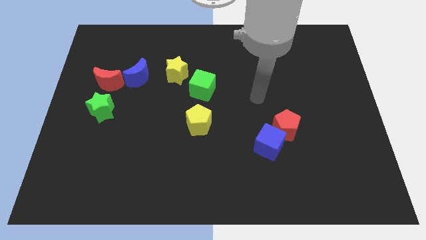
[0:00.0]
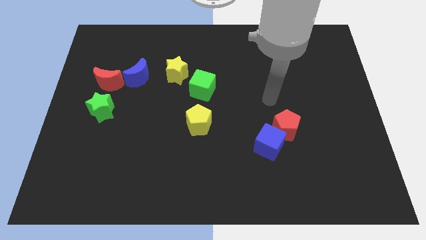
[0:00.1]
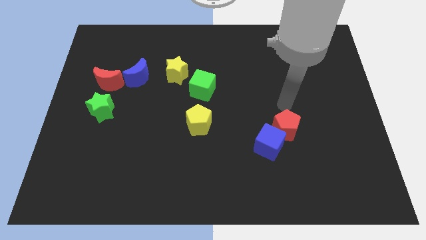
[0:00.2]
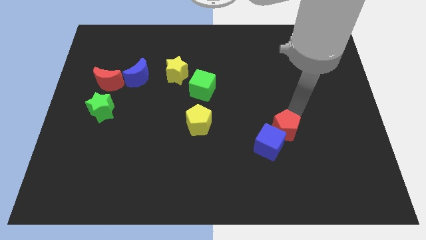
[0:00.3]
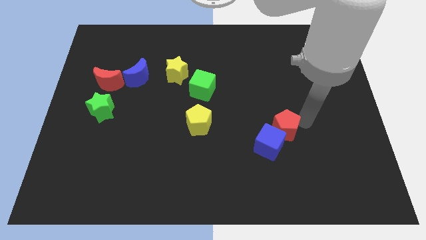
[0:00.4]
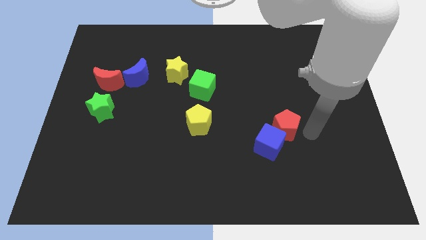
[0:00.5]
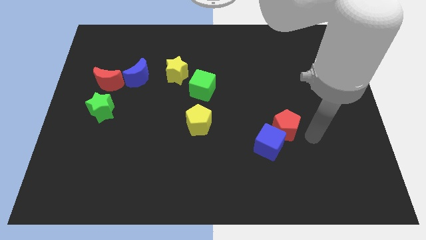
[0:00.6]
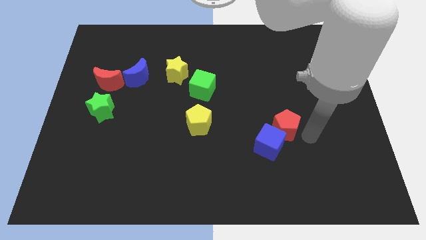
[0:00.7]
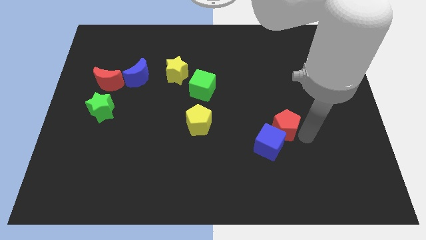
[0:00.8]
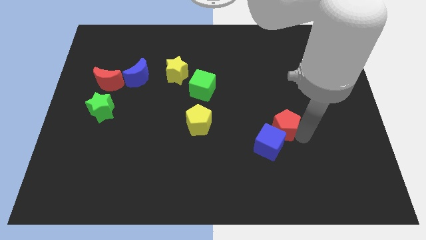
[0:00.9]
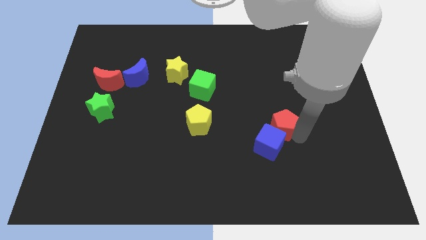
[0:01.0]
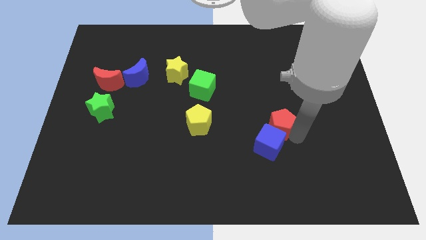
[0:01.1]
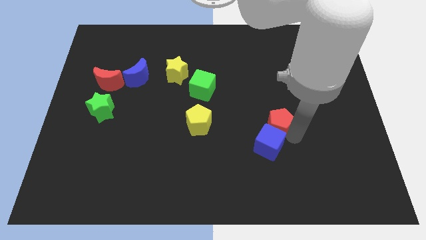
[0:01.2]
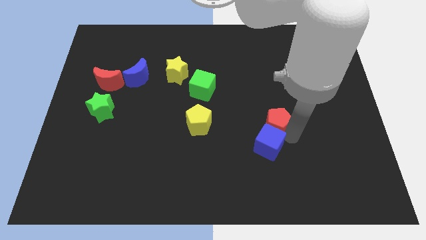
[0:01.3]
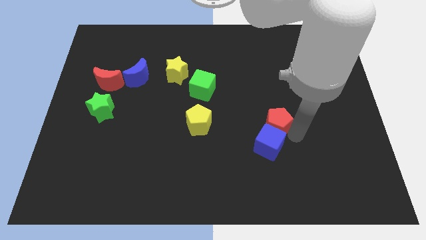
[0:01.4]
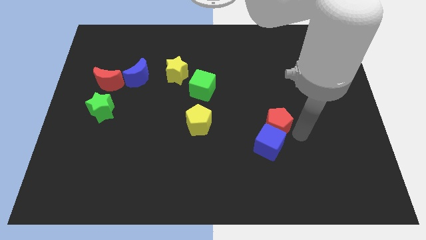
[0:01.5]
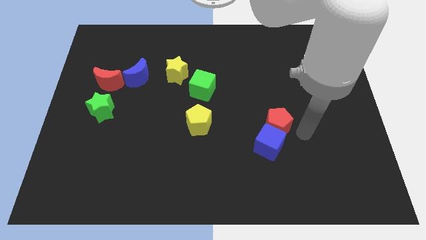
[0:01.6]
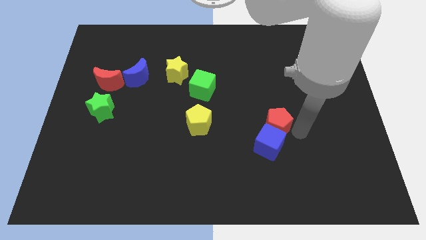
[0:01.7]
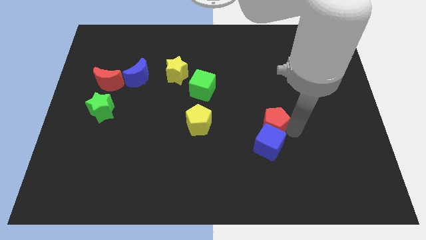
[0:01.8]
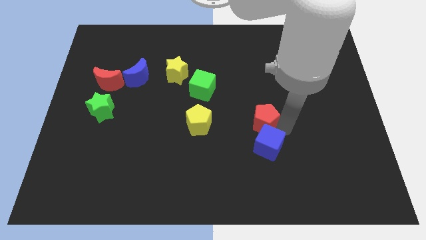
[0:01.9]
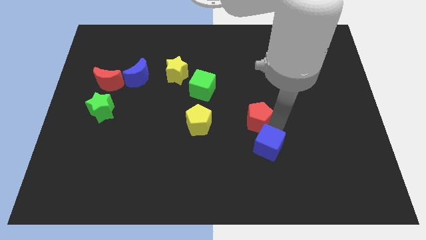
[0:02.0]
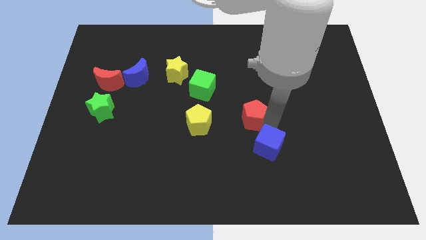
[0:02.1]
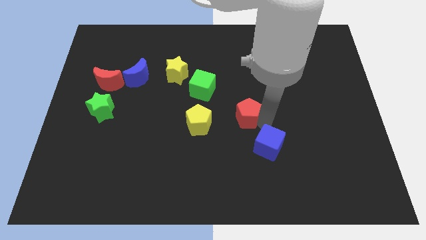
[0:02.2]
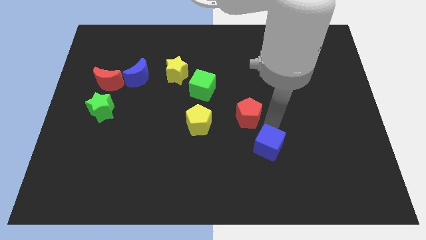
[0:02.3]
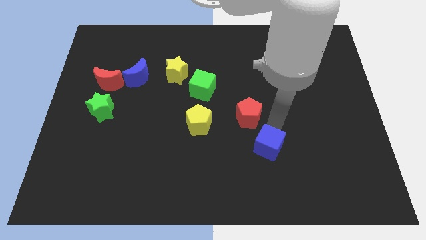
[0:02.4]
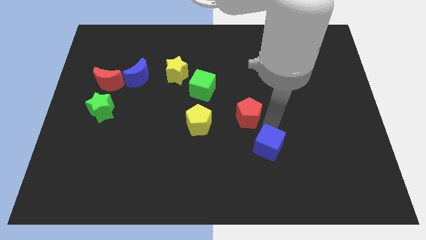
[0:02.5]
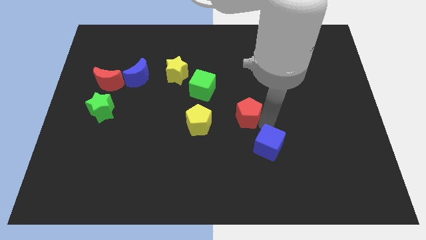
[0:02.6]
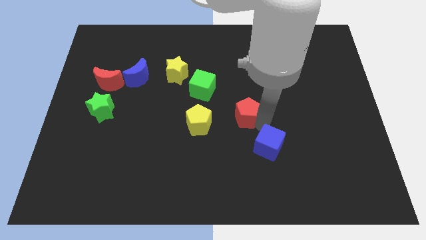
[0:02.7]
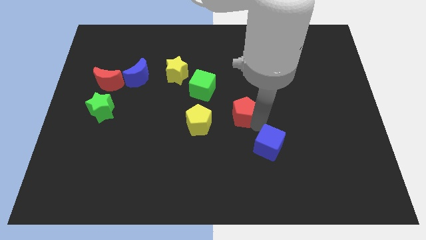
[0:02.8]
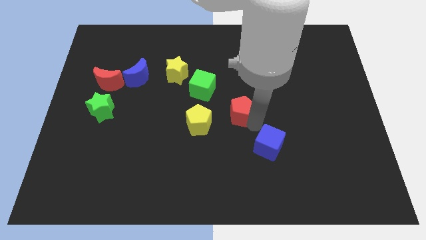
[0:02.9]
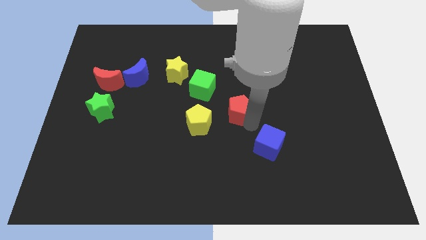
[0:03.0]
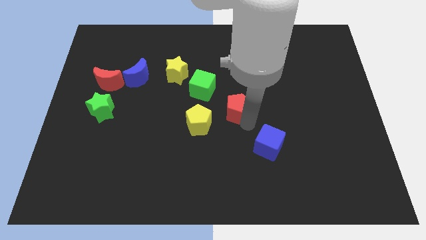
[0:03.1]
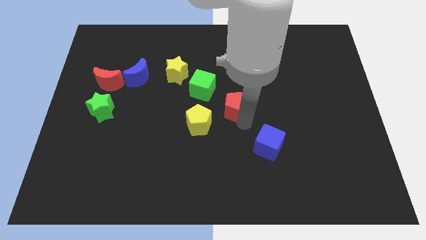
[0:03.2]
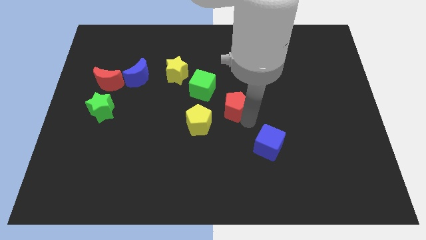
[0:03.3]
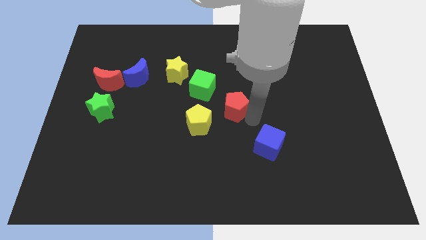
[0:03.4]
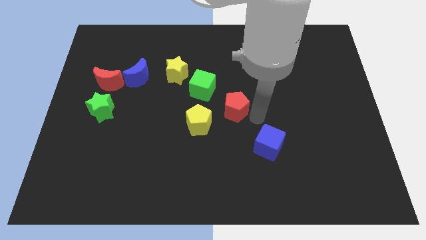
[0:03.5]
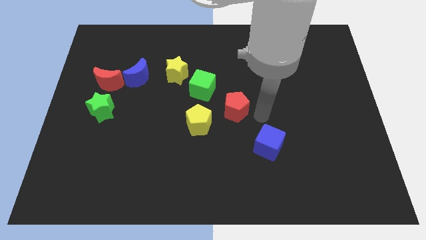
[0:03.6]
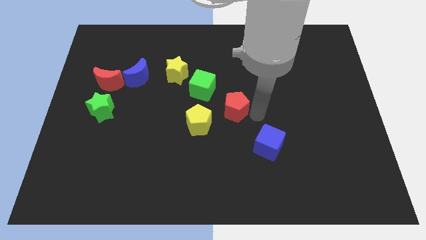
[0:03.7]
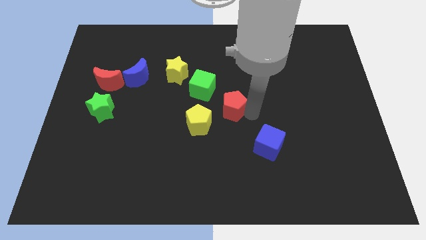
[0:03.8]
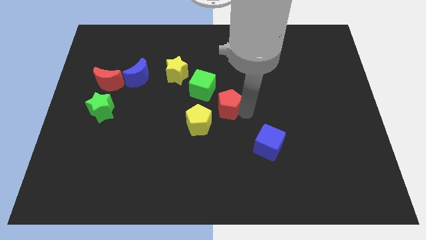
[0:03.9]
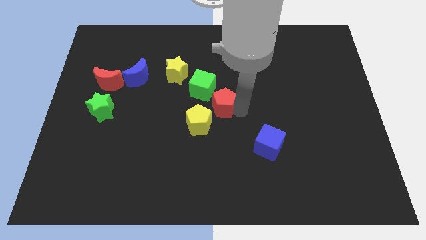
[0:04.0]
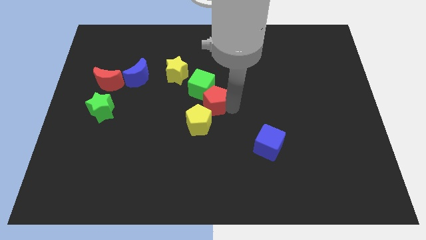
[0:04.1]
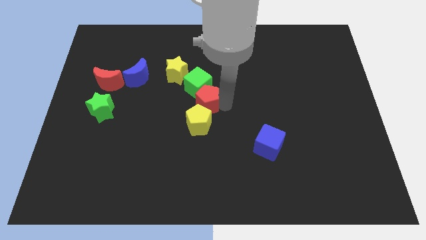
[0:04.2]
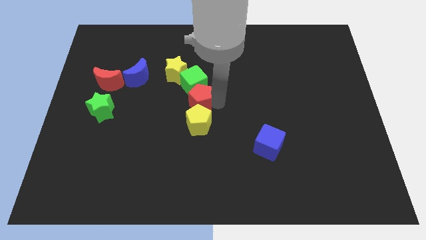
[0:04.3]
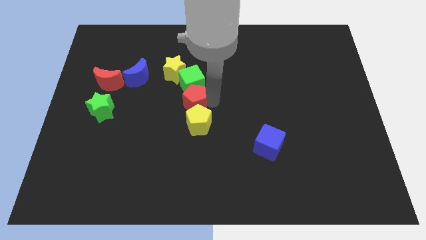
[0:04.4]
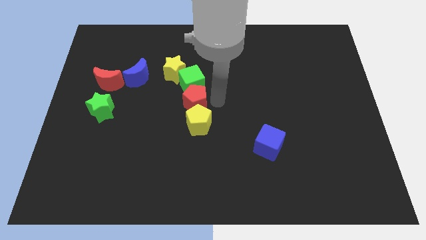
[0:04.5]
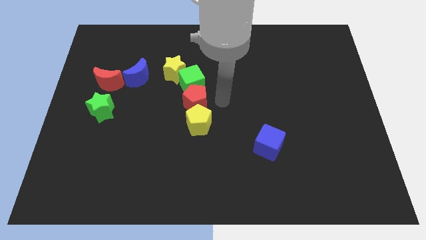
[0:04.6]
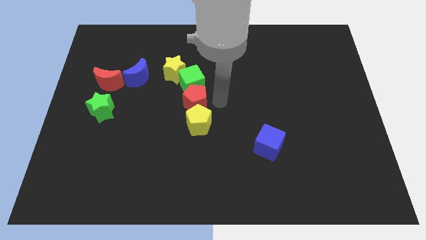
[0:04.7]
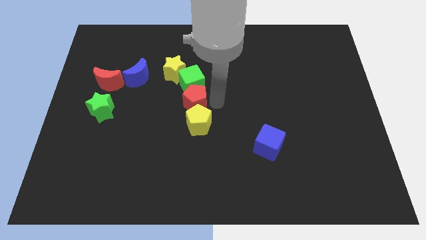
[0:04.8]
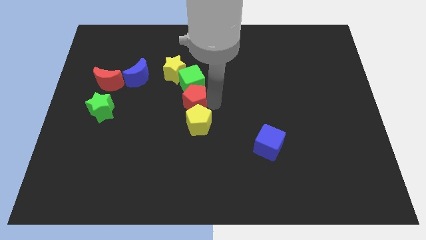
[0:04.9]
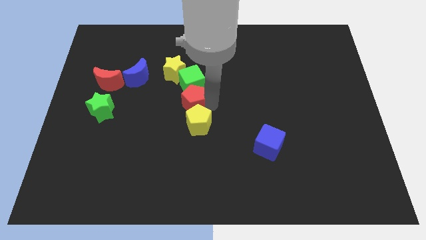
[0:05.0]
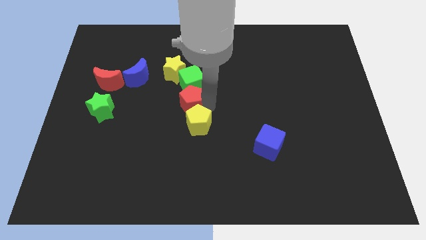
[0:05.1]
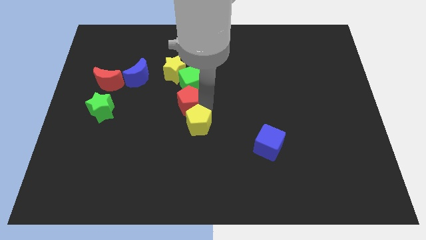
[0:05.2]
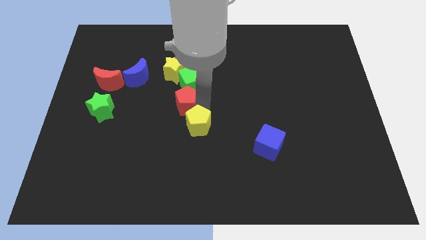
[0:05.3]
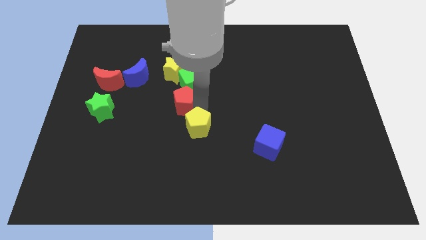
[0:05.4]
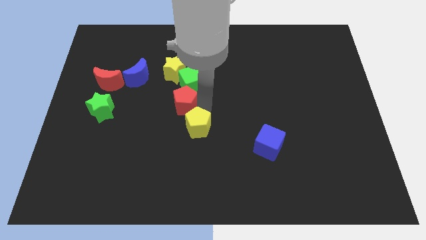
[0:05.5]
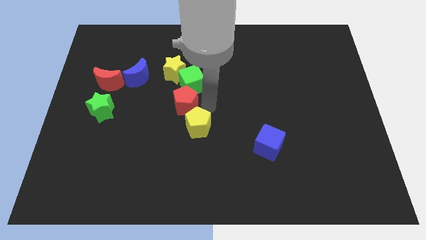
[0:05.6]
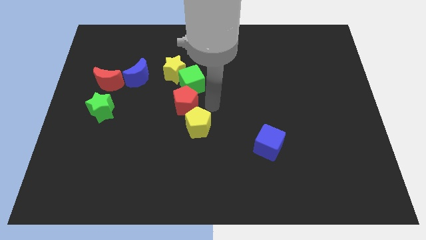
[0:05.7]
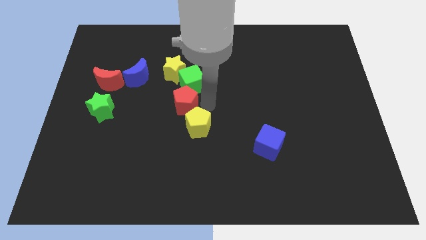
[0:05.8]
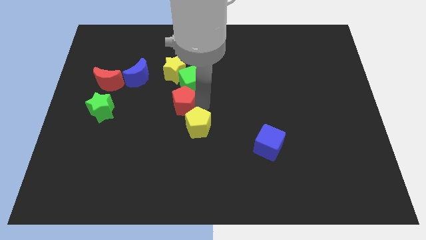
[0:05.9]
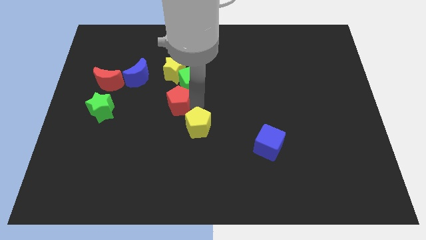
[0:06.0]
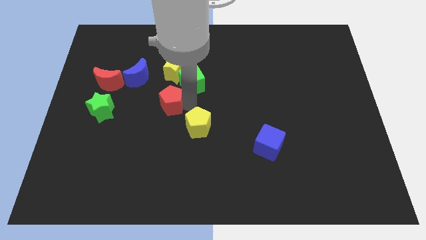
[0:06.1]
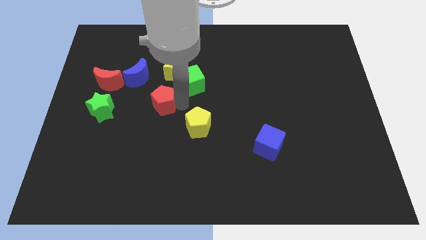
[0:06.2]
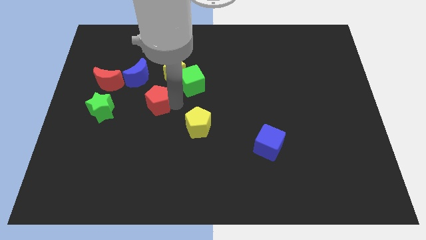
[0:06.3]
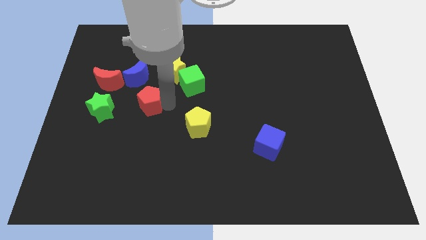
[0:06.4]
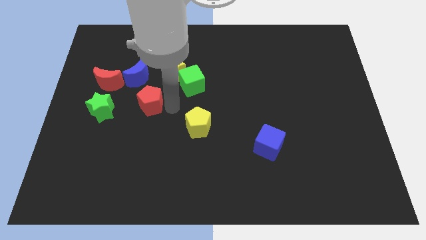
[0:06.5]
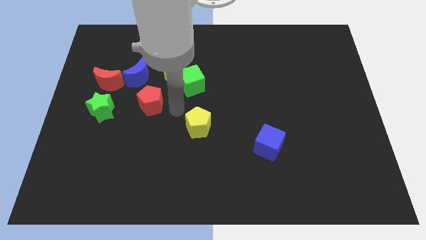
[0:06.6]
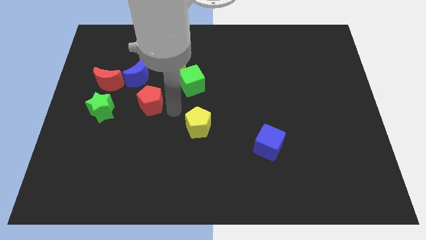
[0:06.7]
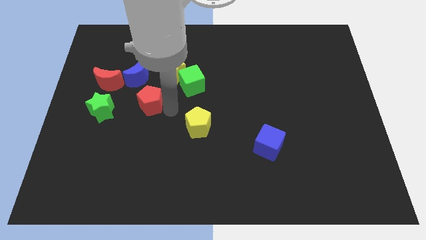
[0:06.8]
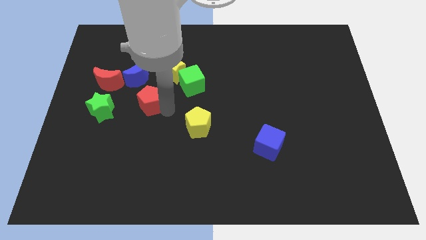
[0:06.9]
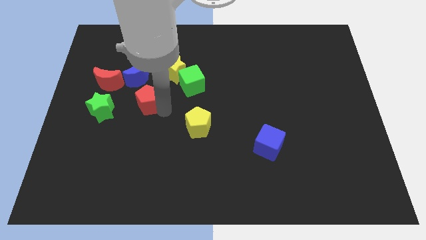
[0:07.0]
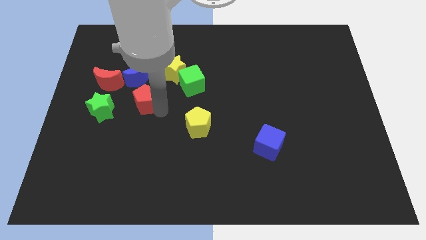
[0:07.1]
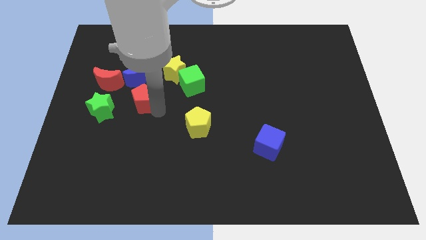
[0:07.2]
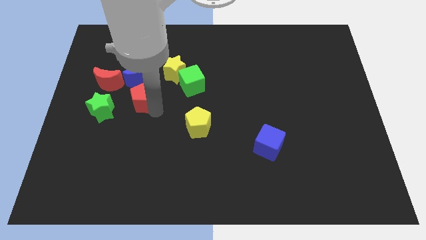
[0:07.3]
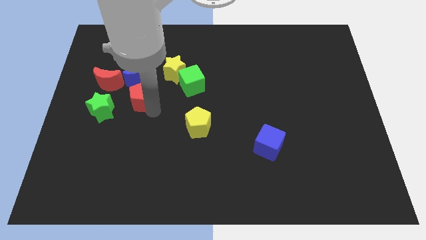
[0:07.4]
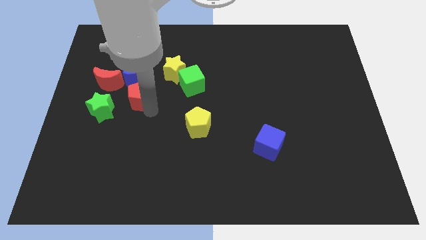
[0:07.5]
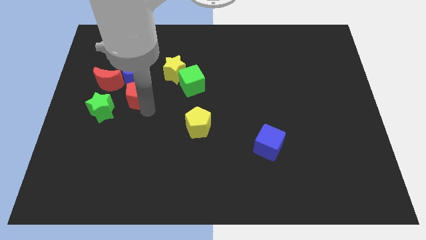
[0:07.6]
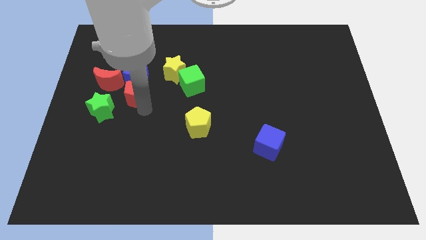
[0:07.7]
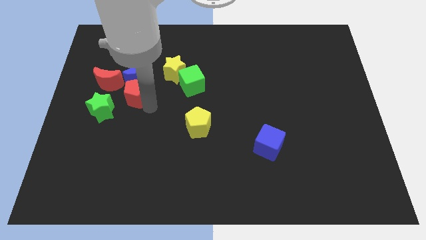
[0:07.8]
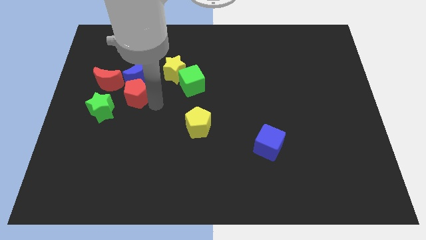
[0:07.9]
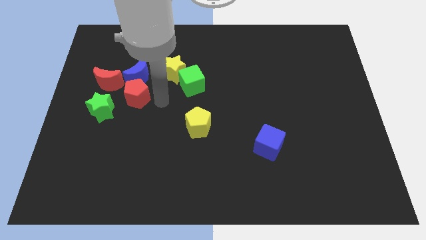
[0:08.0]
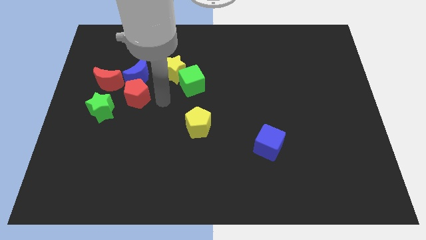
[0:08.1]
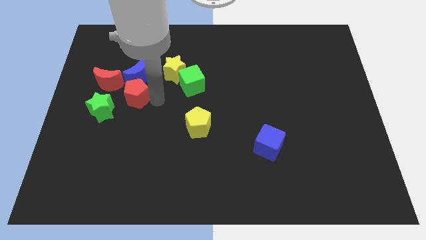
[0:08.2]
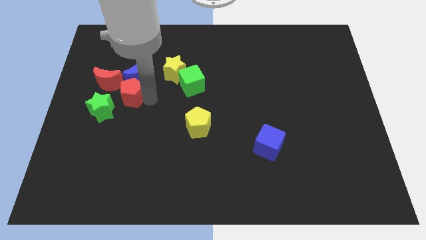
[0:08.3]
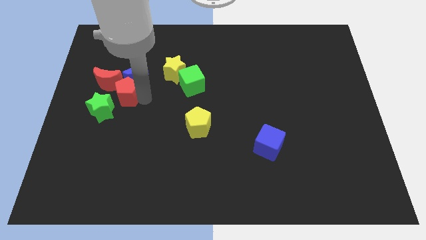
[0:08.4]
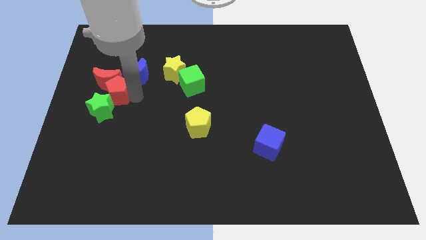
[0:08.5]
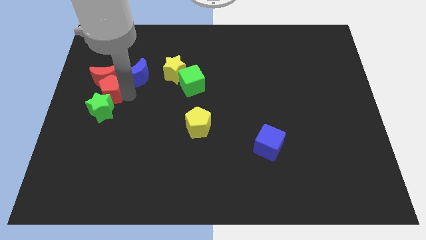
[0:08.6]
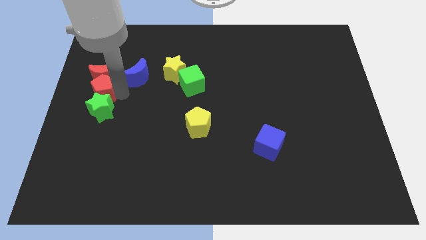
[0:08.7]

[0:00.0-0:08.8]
push the red pentagon to the left side of the board
